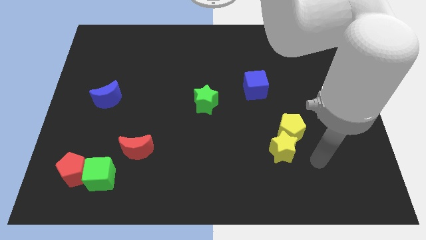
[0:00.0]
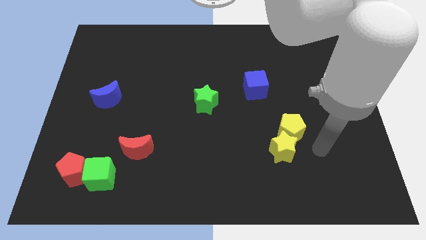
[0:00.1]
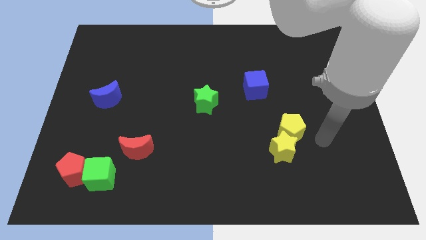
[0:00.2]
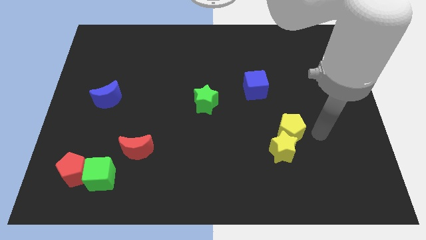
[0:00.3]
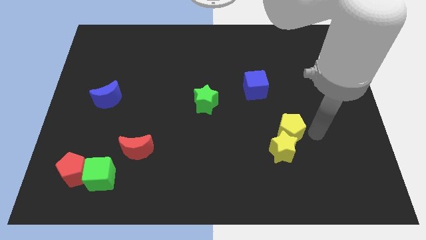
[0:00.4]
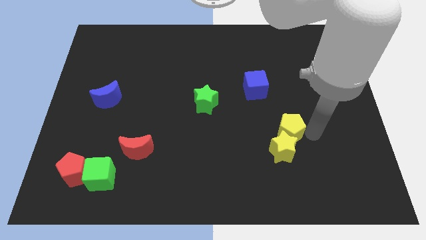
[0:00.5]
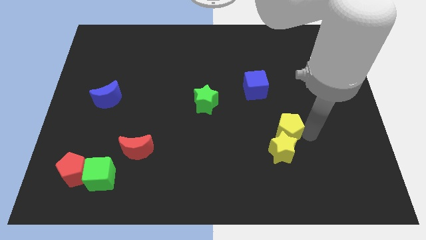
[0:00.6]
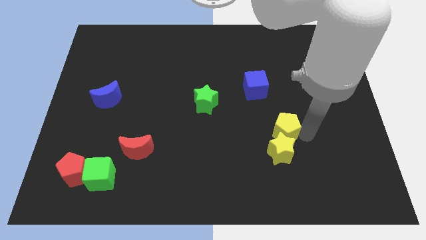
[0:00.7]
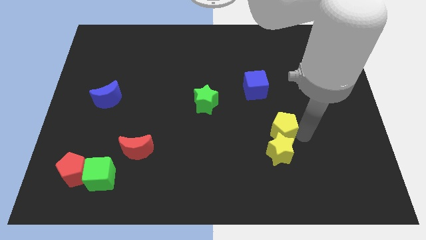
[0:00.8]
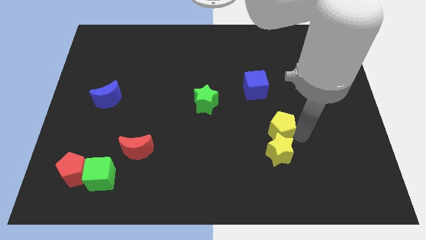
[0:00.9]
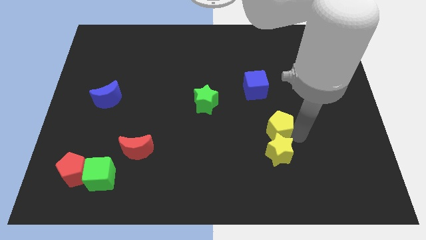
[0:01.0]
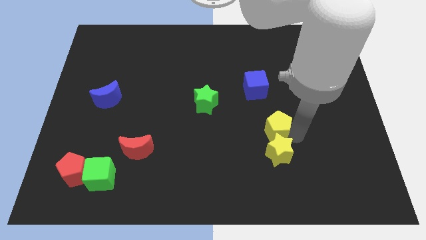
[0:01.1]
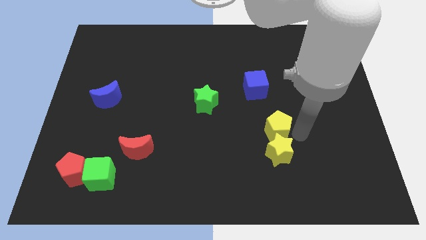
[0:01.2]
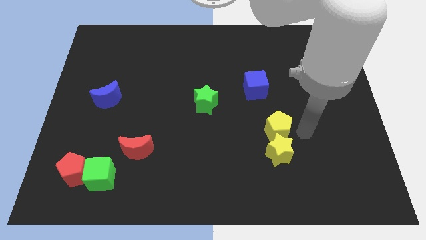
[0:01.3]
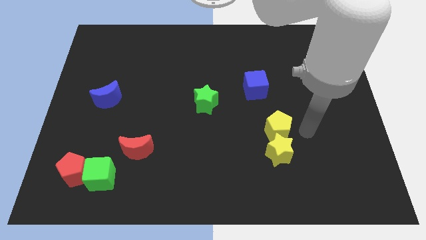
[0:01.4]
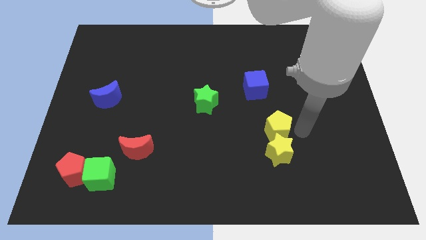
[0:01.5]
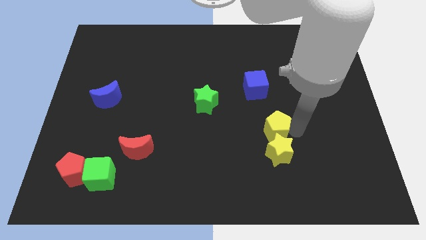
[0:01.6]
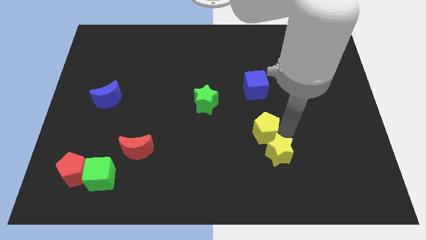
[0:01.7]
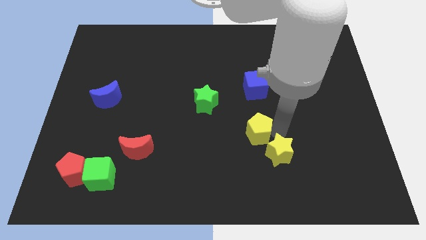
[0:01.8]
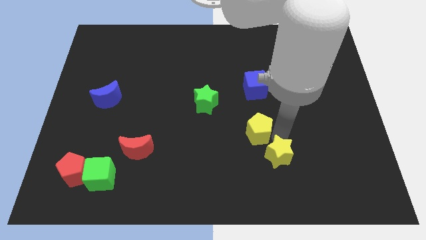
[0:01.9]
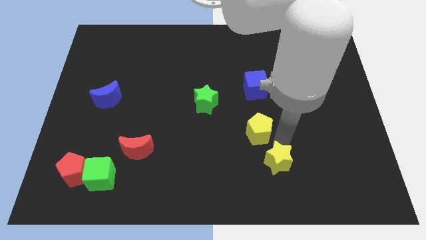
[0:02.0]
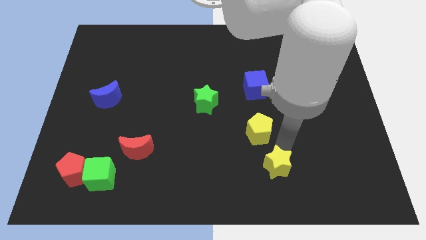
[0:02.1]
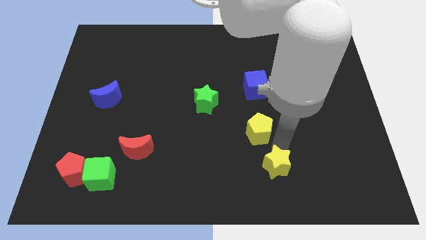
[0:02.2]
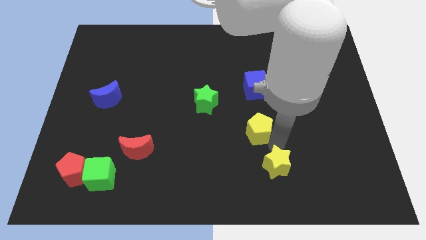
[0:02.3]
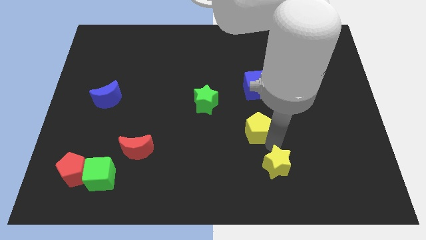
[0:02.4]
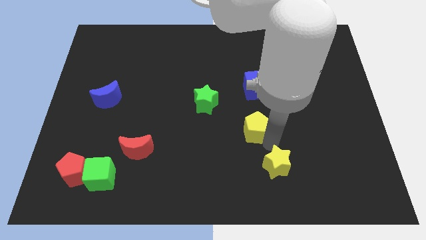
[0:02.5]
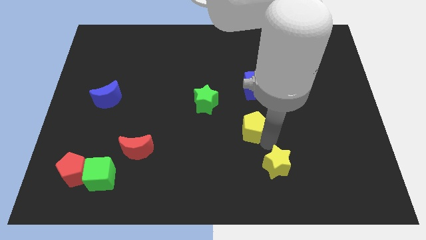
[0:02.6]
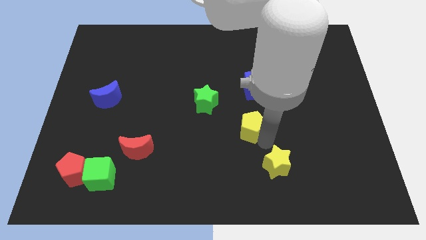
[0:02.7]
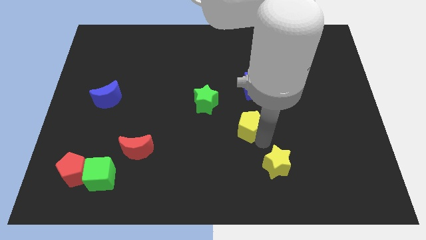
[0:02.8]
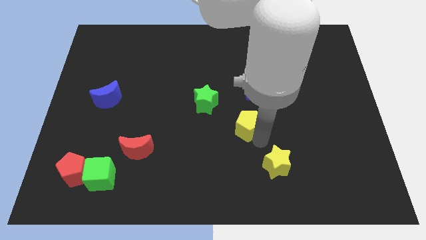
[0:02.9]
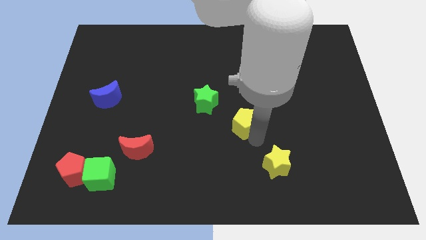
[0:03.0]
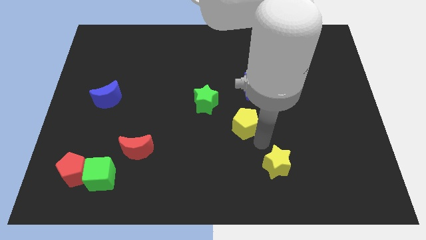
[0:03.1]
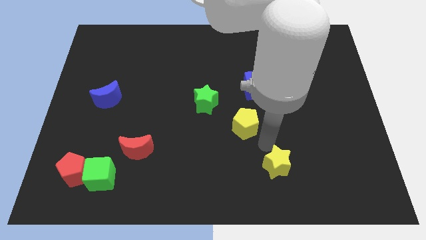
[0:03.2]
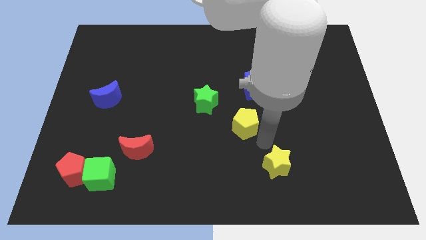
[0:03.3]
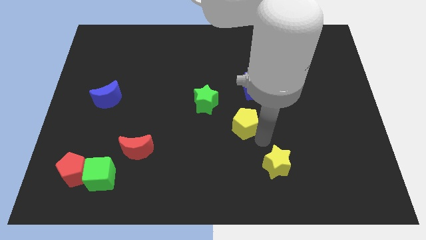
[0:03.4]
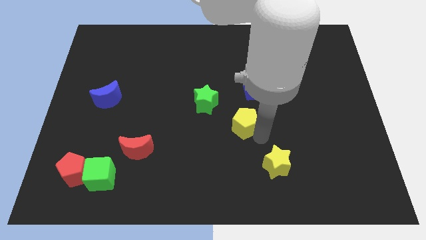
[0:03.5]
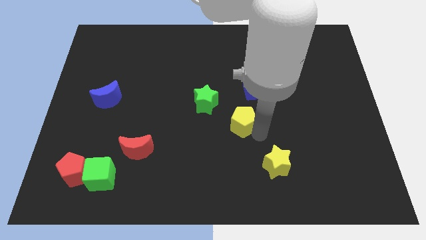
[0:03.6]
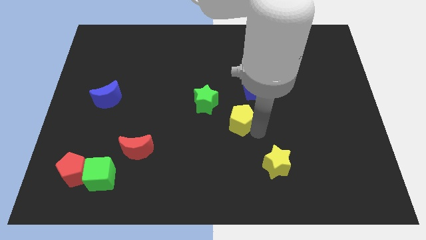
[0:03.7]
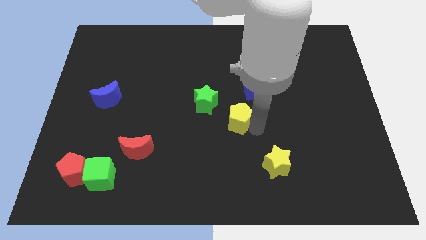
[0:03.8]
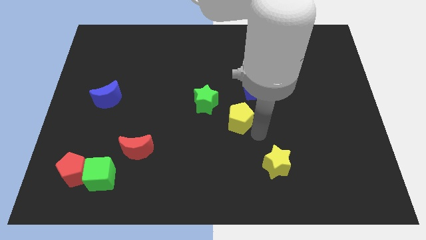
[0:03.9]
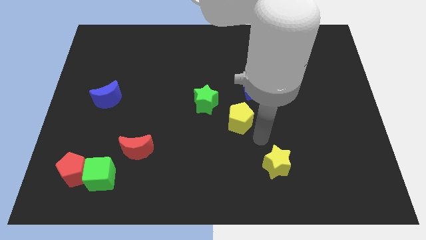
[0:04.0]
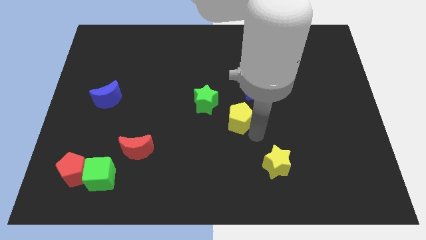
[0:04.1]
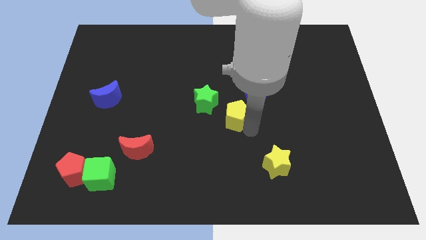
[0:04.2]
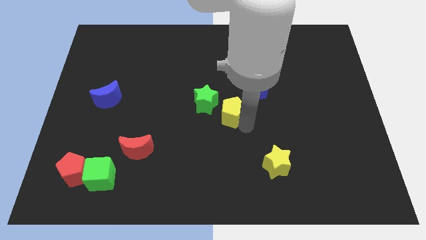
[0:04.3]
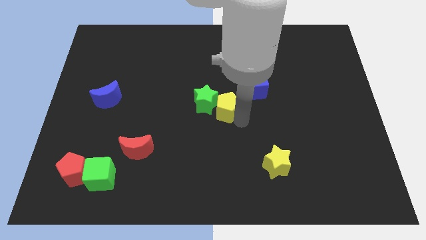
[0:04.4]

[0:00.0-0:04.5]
move the yellow pentagon to the green star

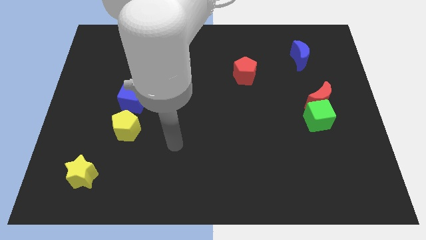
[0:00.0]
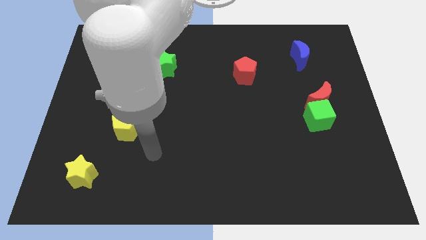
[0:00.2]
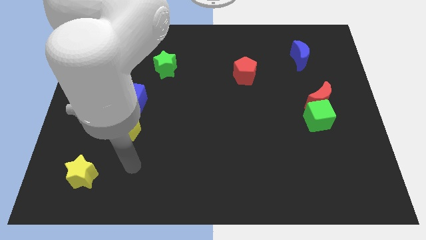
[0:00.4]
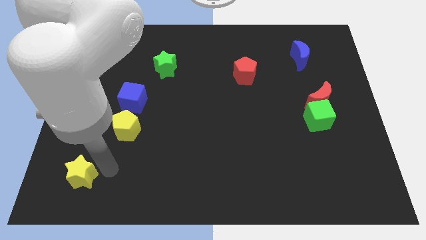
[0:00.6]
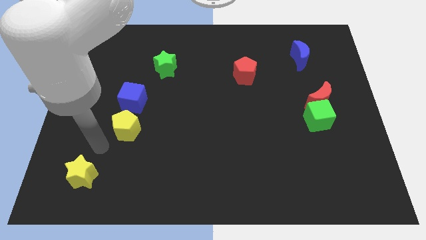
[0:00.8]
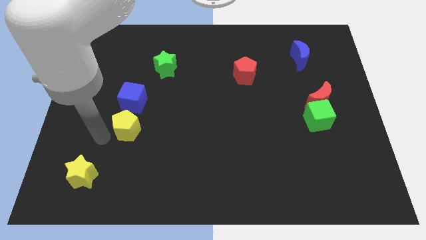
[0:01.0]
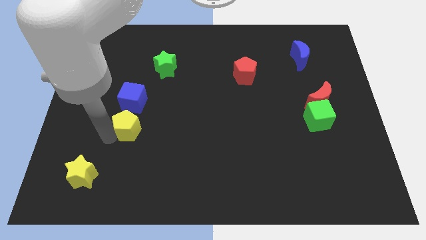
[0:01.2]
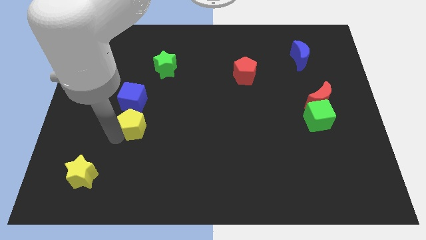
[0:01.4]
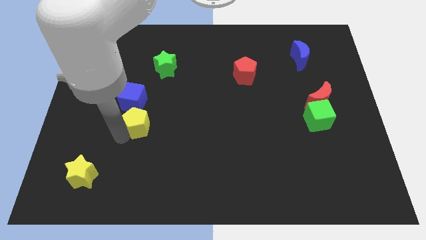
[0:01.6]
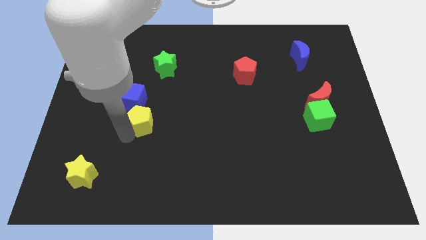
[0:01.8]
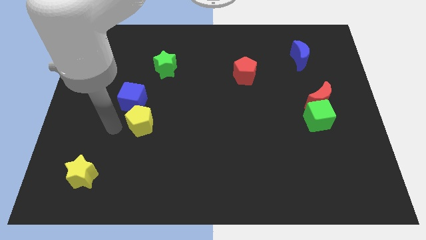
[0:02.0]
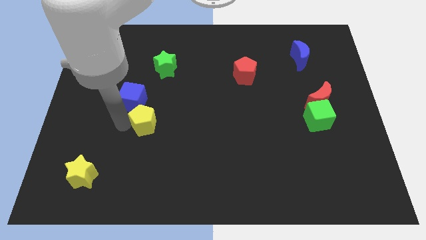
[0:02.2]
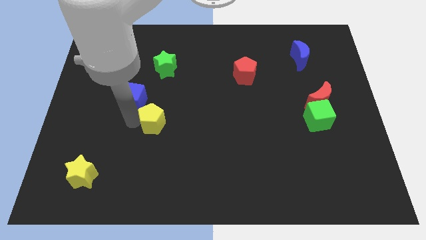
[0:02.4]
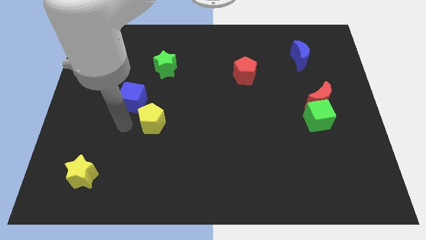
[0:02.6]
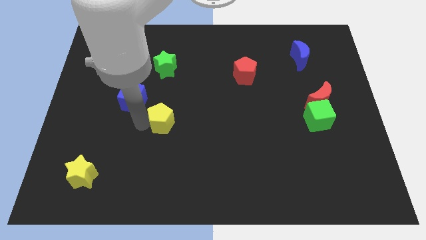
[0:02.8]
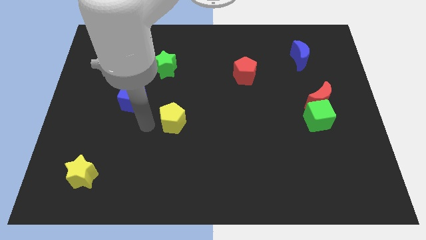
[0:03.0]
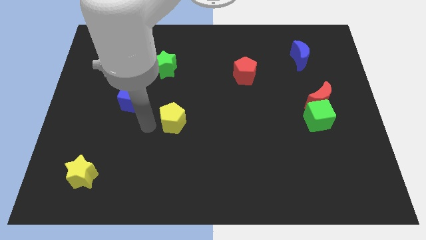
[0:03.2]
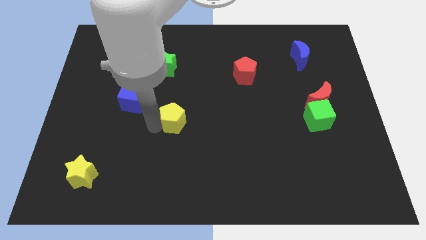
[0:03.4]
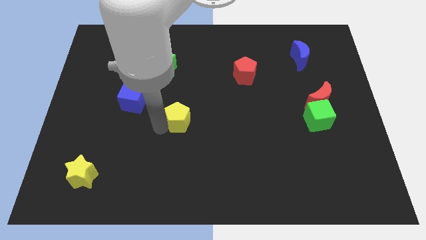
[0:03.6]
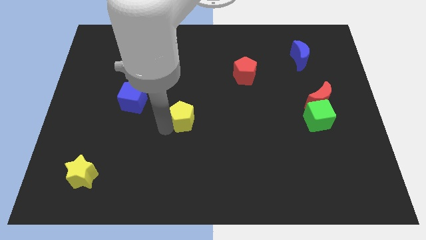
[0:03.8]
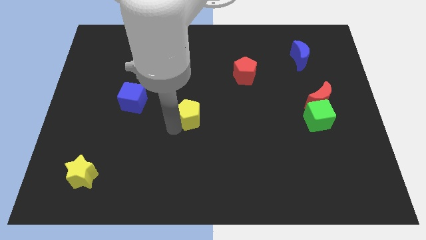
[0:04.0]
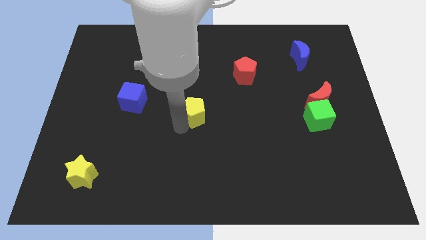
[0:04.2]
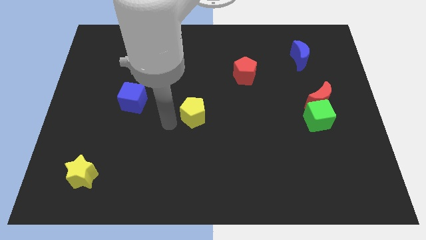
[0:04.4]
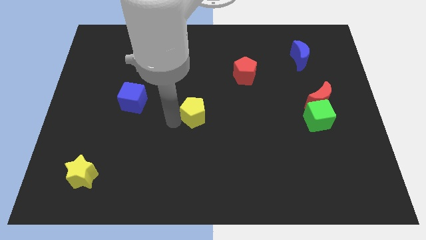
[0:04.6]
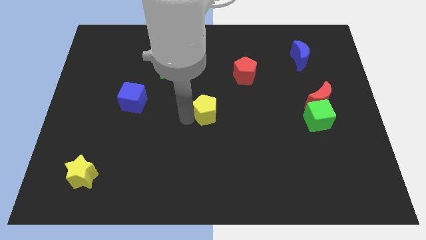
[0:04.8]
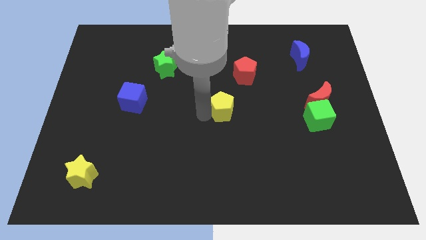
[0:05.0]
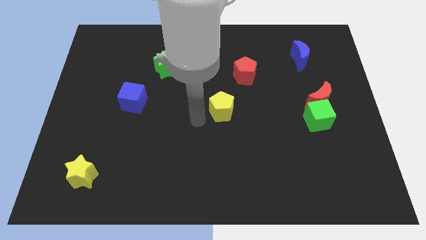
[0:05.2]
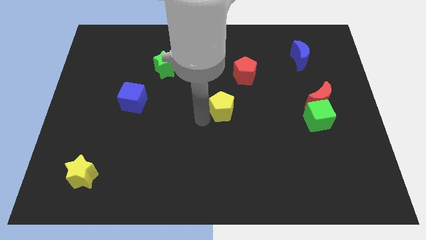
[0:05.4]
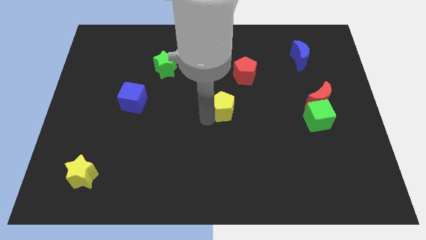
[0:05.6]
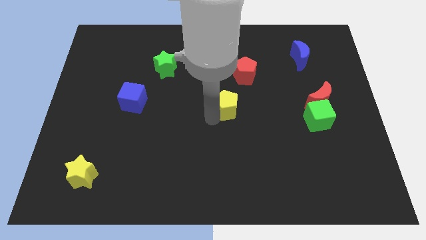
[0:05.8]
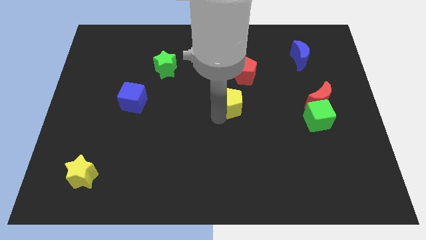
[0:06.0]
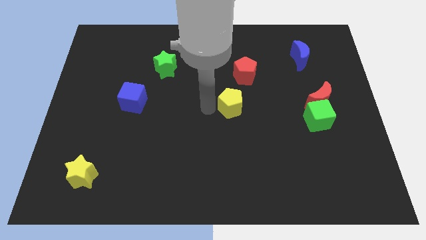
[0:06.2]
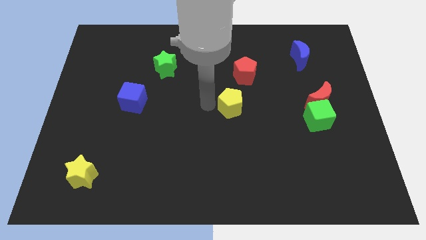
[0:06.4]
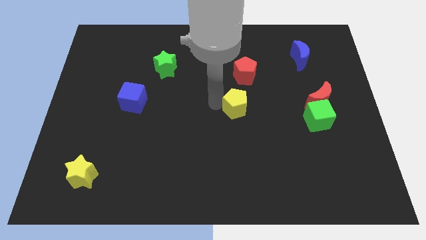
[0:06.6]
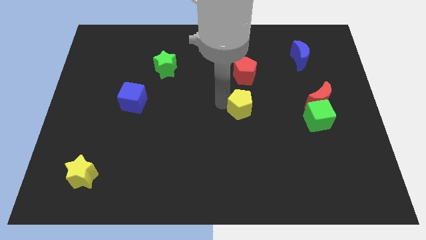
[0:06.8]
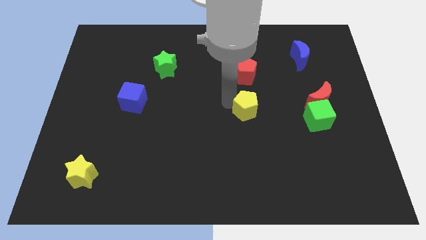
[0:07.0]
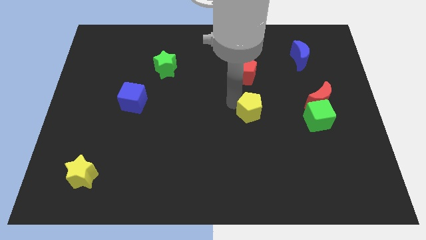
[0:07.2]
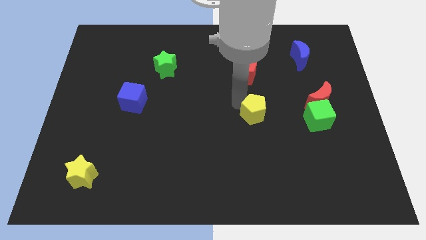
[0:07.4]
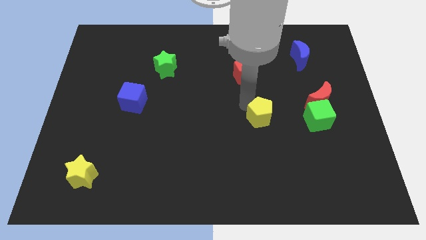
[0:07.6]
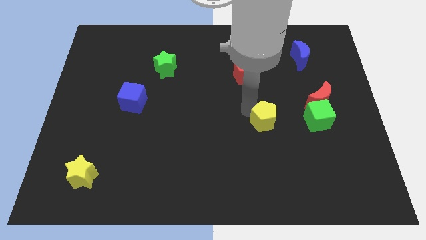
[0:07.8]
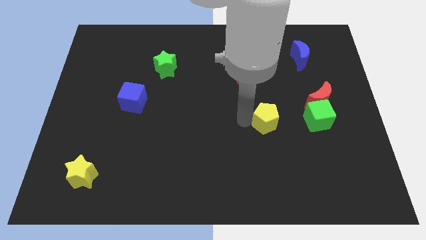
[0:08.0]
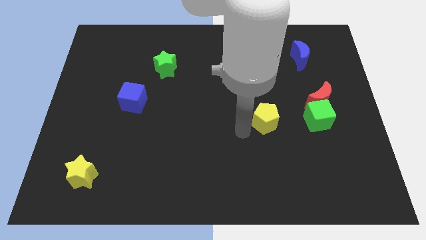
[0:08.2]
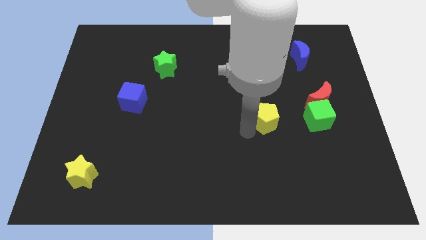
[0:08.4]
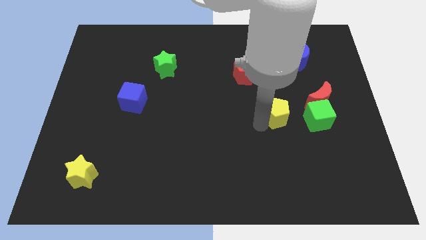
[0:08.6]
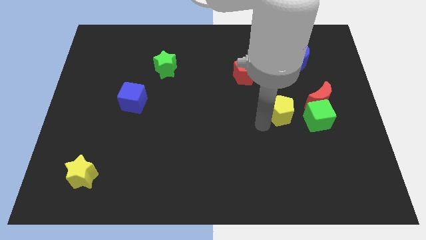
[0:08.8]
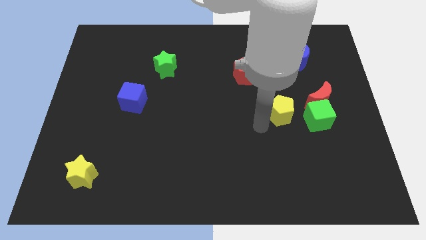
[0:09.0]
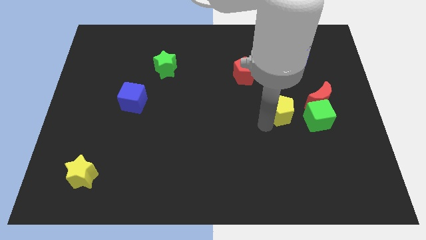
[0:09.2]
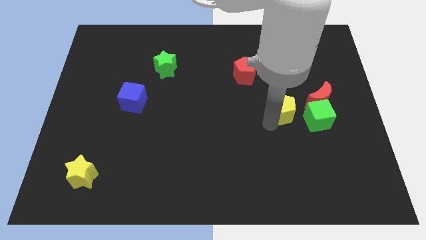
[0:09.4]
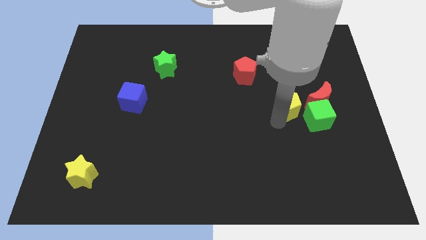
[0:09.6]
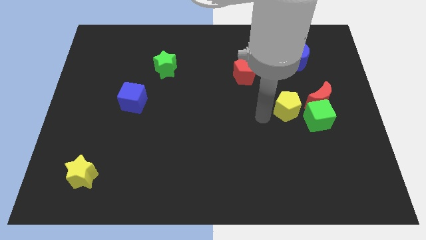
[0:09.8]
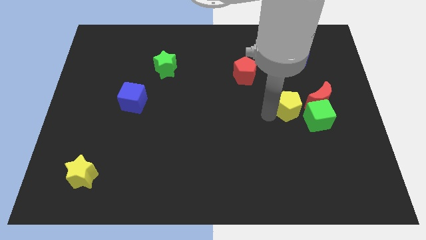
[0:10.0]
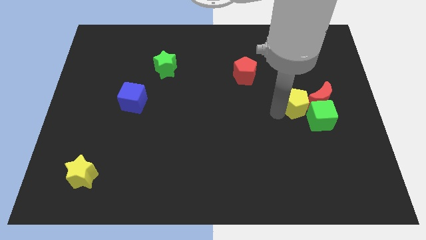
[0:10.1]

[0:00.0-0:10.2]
move the yellow pentagon close to the red moon
